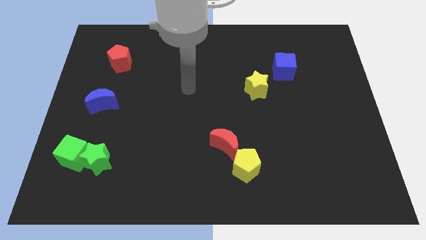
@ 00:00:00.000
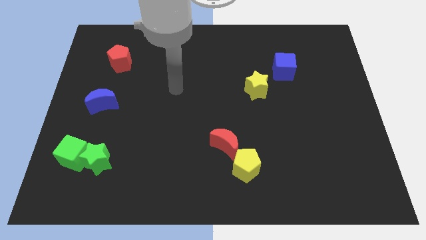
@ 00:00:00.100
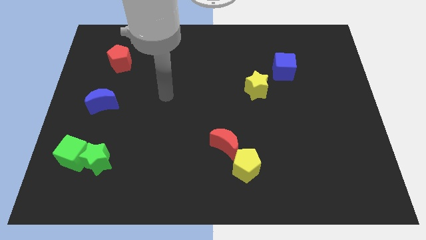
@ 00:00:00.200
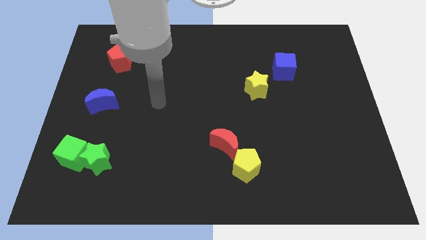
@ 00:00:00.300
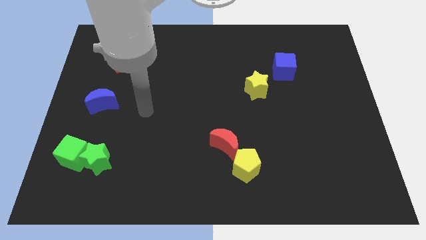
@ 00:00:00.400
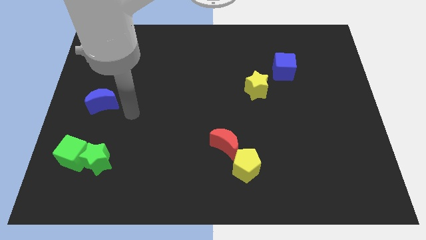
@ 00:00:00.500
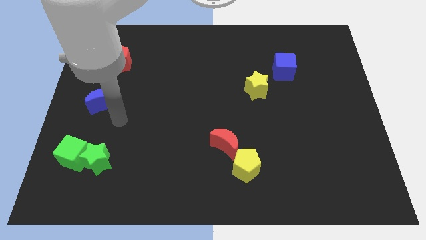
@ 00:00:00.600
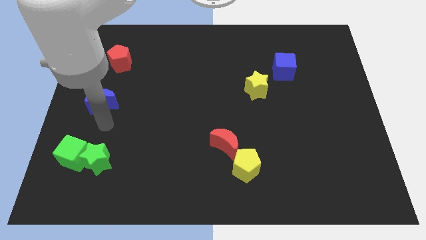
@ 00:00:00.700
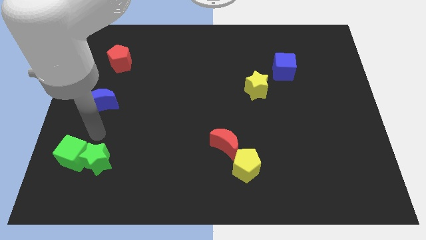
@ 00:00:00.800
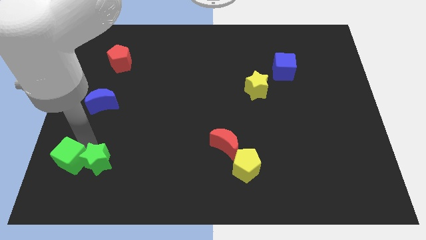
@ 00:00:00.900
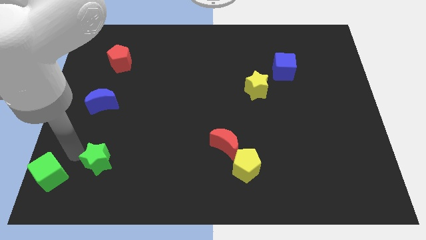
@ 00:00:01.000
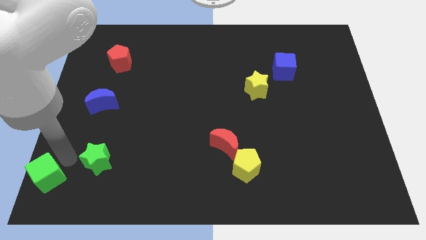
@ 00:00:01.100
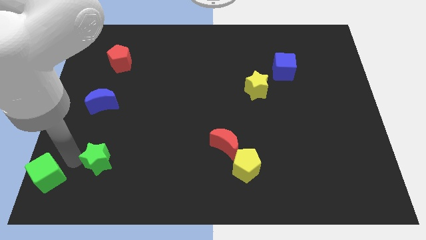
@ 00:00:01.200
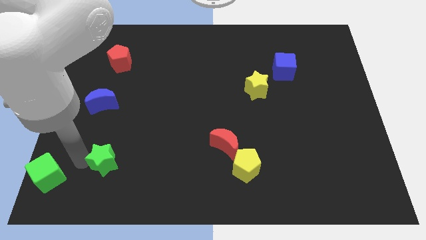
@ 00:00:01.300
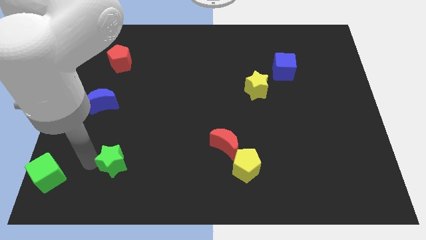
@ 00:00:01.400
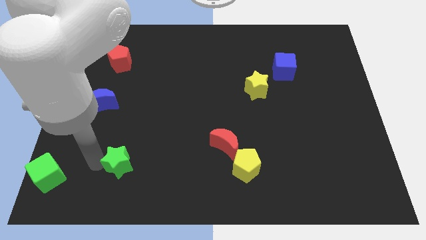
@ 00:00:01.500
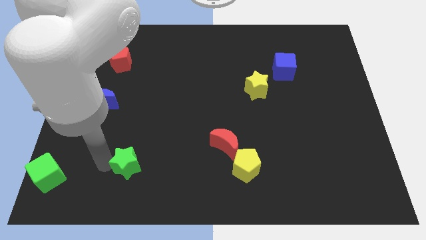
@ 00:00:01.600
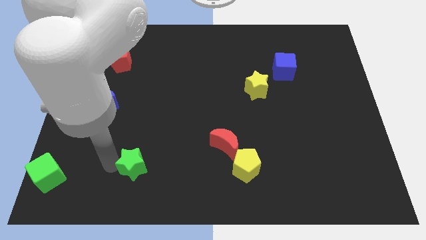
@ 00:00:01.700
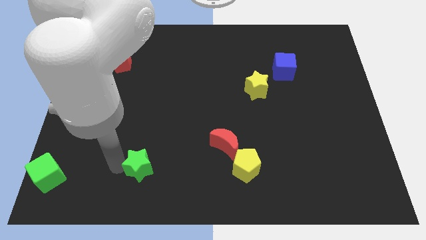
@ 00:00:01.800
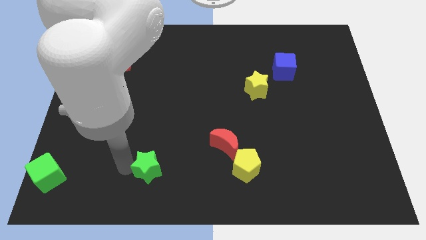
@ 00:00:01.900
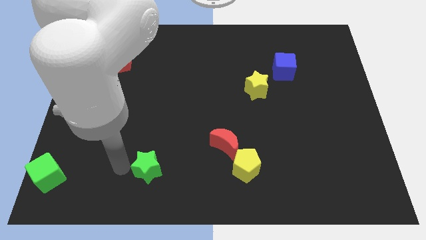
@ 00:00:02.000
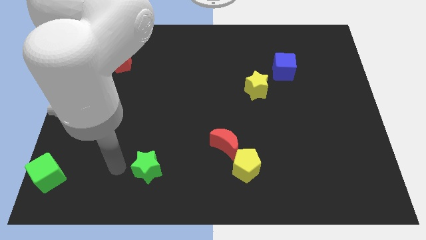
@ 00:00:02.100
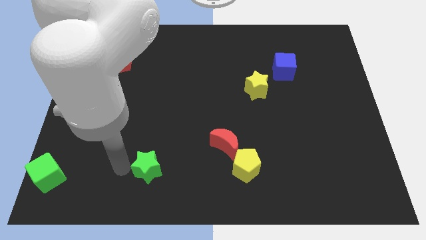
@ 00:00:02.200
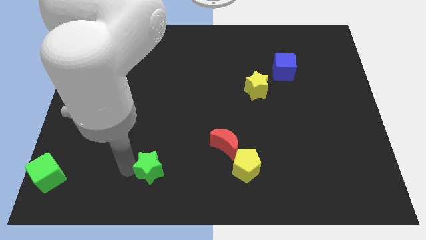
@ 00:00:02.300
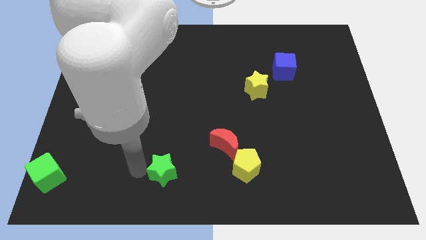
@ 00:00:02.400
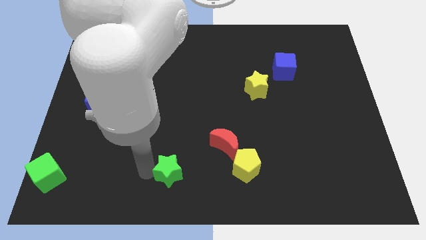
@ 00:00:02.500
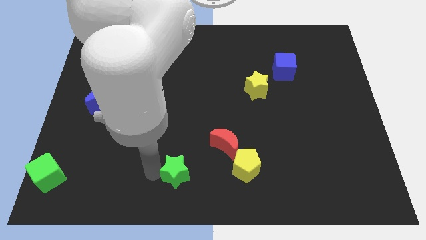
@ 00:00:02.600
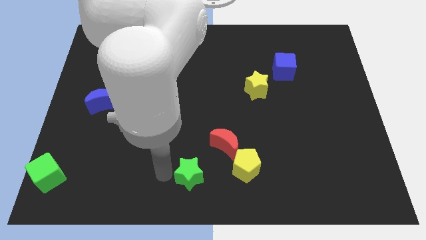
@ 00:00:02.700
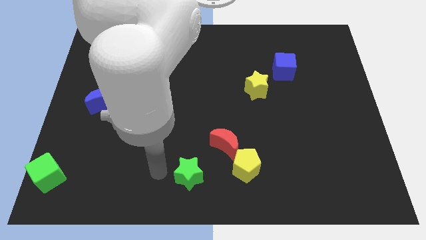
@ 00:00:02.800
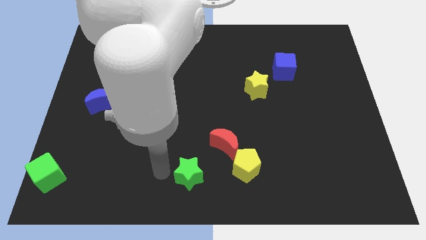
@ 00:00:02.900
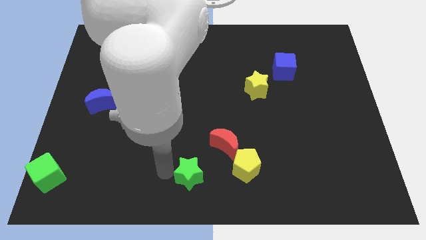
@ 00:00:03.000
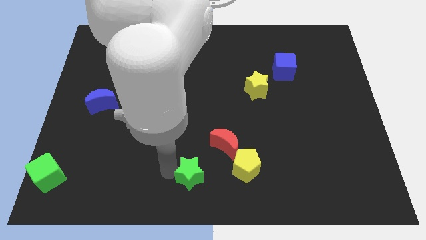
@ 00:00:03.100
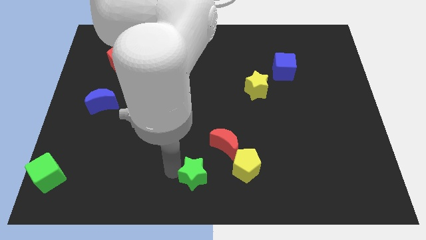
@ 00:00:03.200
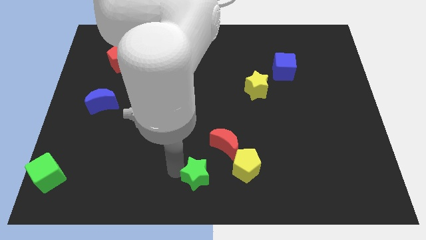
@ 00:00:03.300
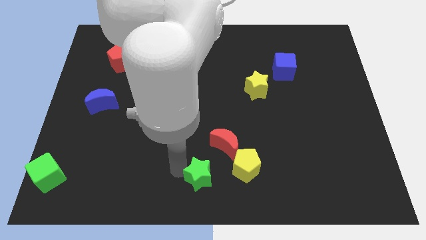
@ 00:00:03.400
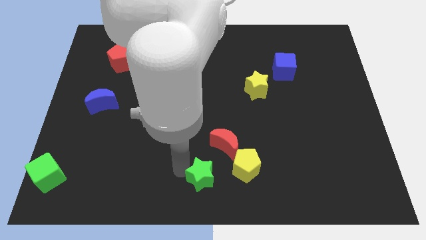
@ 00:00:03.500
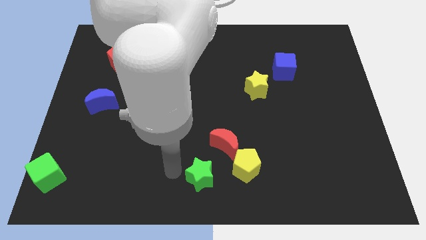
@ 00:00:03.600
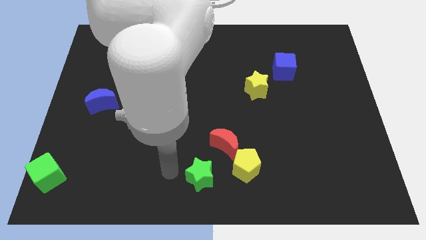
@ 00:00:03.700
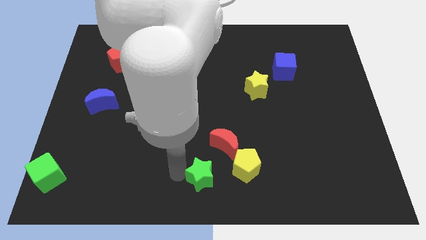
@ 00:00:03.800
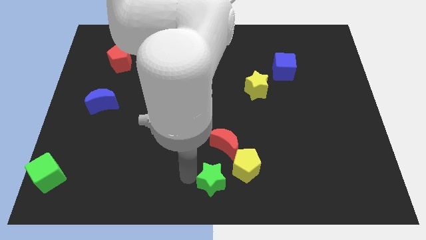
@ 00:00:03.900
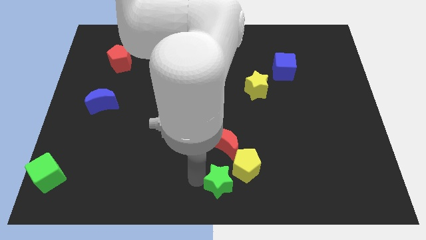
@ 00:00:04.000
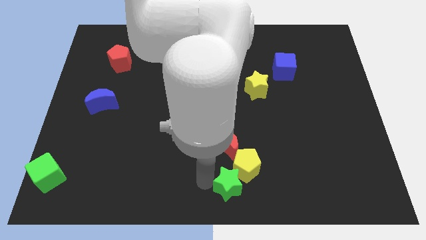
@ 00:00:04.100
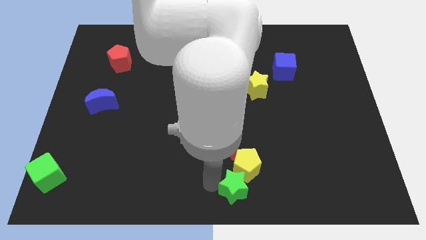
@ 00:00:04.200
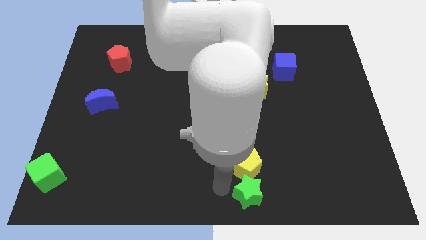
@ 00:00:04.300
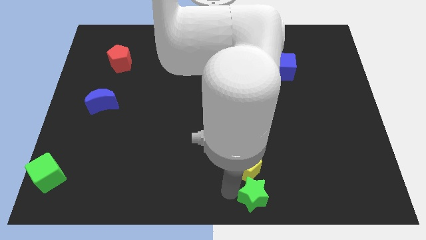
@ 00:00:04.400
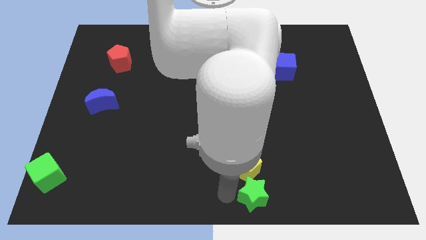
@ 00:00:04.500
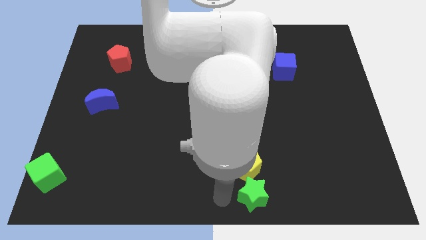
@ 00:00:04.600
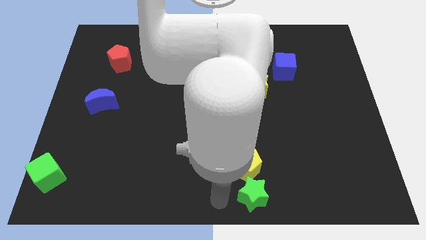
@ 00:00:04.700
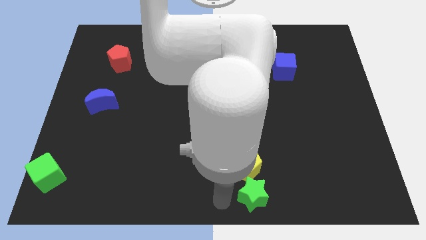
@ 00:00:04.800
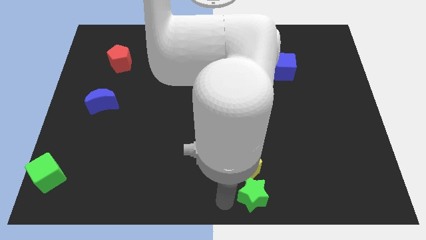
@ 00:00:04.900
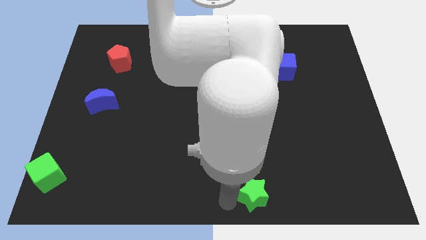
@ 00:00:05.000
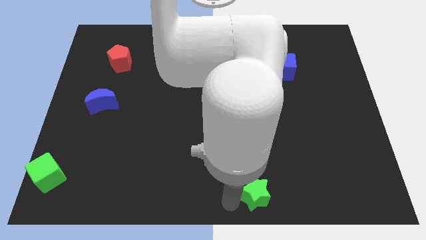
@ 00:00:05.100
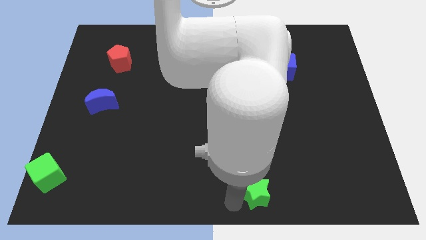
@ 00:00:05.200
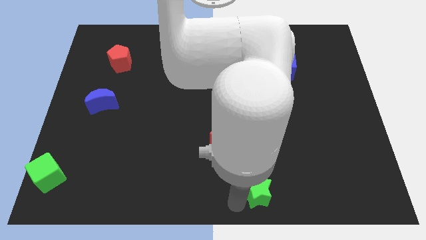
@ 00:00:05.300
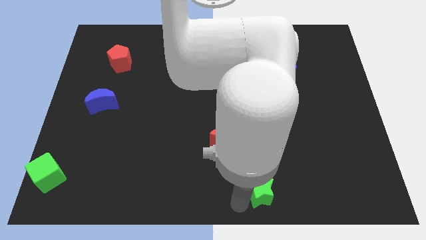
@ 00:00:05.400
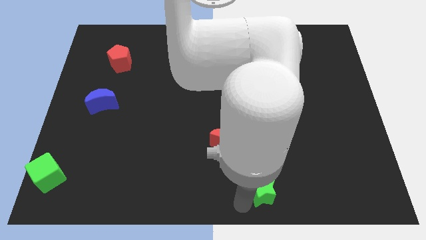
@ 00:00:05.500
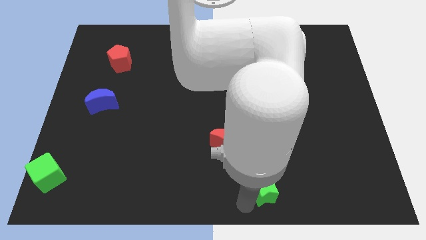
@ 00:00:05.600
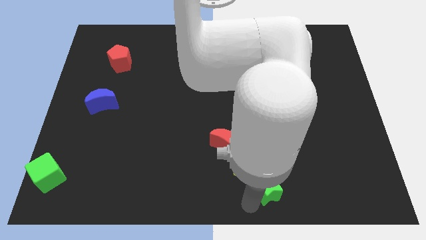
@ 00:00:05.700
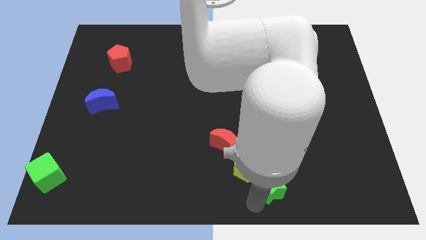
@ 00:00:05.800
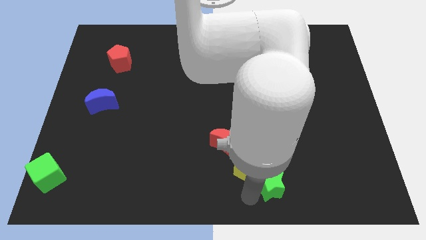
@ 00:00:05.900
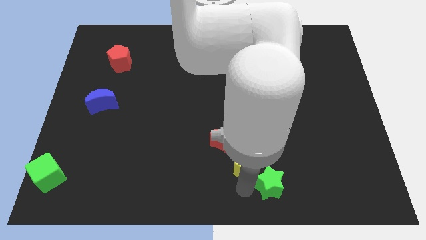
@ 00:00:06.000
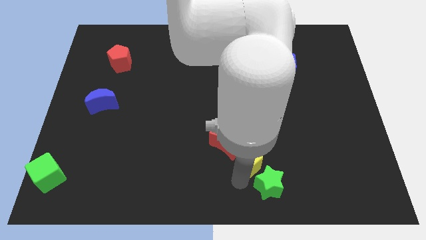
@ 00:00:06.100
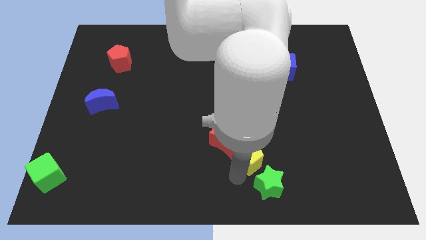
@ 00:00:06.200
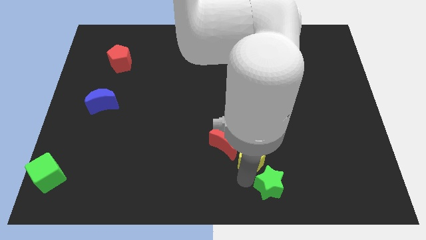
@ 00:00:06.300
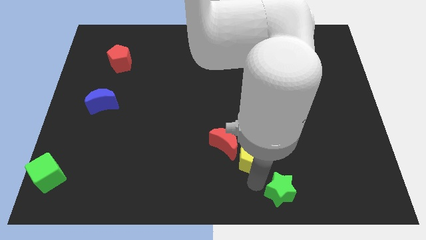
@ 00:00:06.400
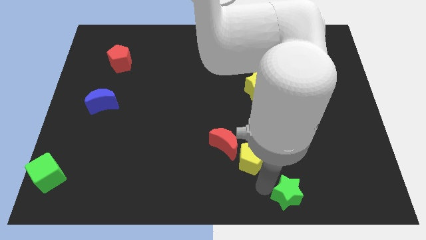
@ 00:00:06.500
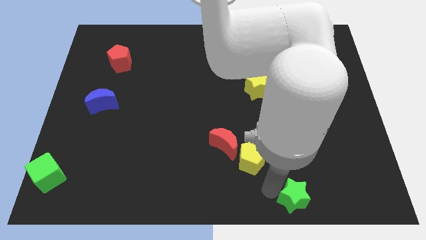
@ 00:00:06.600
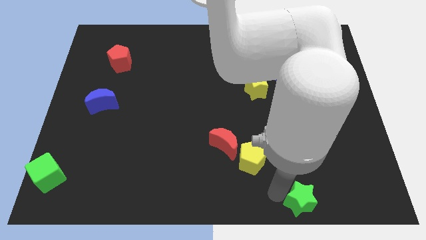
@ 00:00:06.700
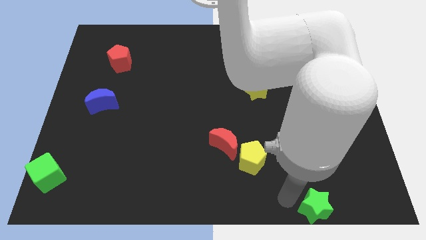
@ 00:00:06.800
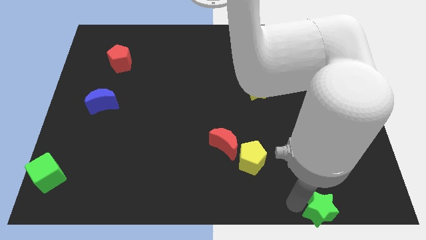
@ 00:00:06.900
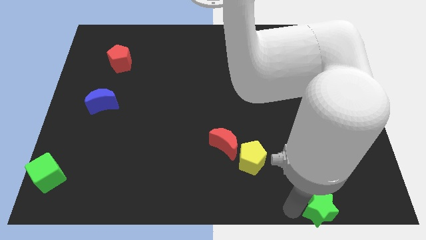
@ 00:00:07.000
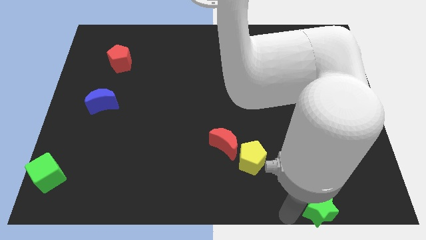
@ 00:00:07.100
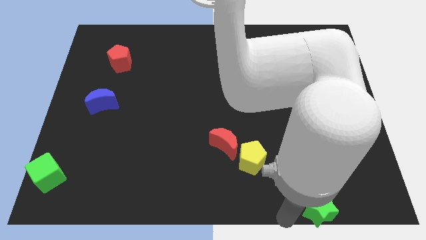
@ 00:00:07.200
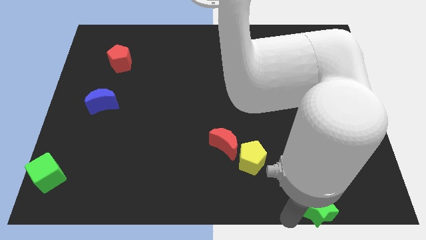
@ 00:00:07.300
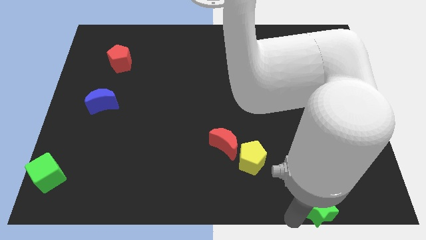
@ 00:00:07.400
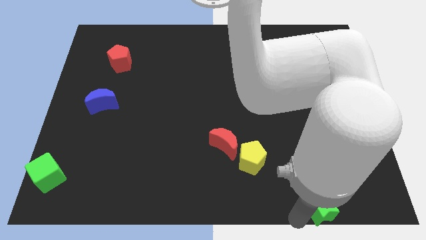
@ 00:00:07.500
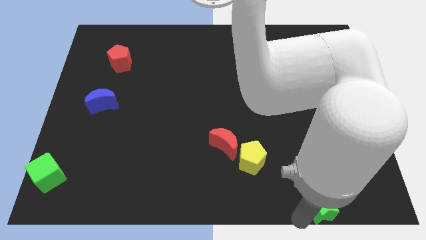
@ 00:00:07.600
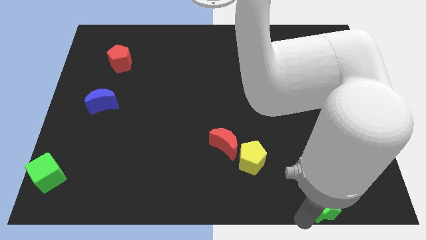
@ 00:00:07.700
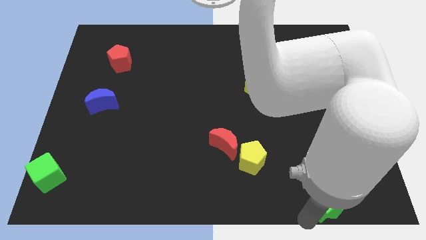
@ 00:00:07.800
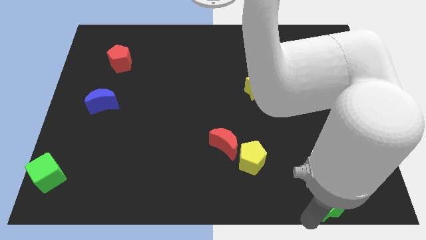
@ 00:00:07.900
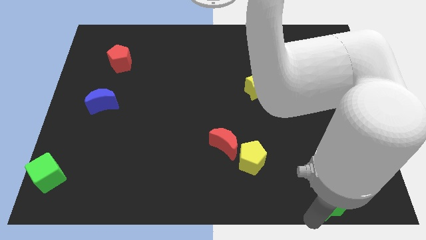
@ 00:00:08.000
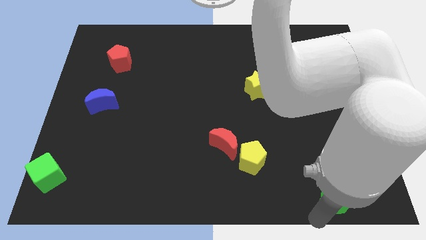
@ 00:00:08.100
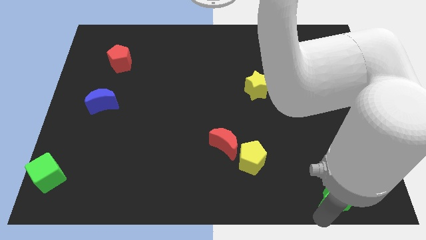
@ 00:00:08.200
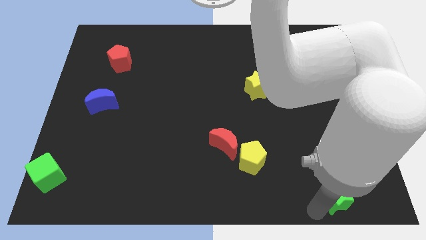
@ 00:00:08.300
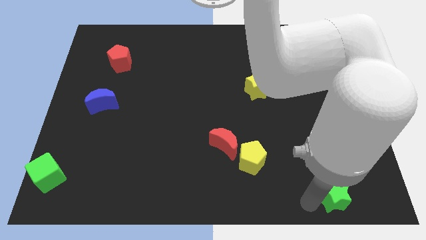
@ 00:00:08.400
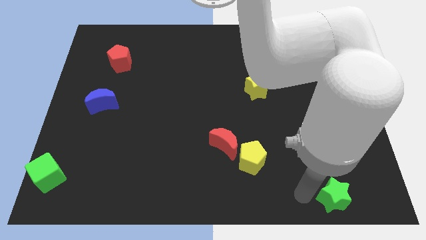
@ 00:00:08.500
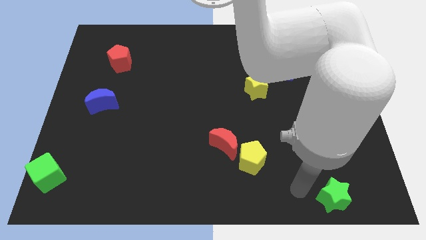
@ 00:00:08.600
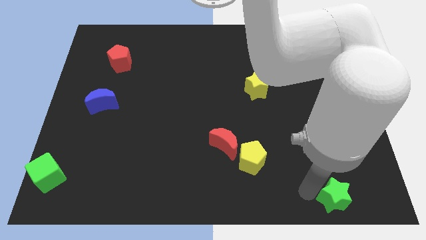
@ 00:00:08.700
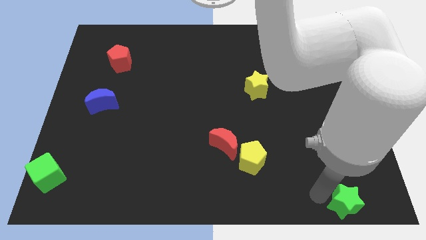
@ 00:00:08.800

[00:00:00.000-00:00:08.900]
put the green star to the bottom right of the board
